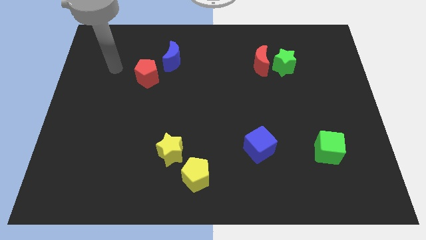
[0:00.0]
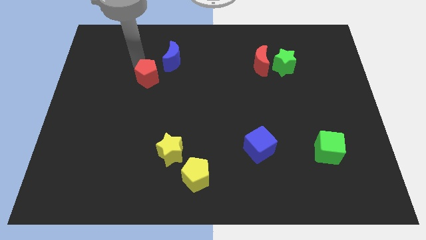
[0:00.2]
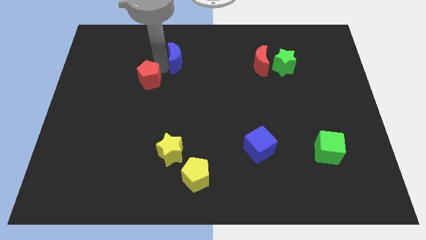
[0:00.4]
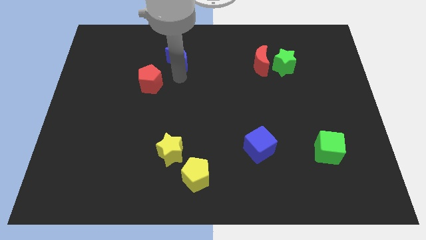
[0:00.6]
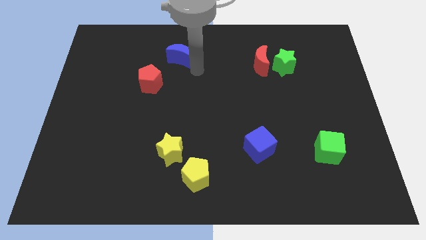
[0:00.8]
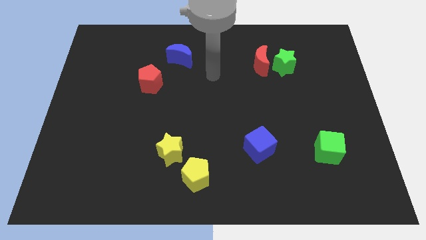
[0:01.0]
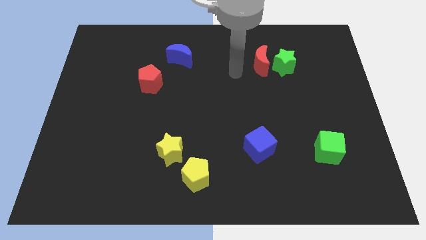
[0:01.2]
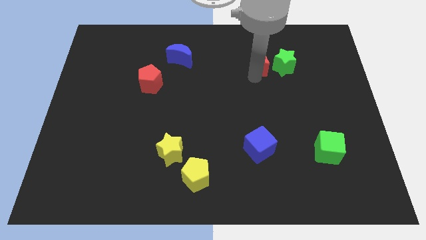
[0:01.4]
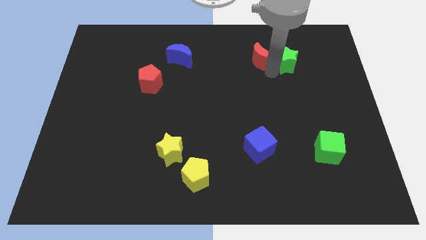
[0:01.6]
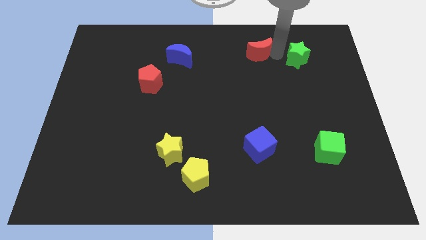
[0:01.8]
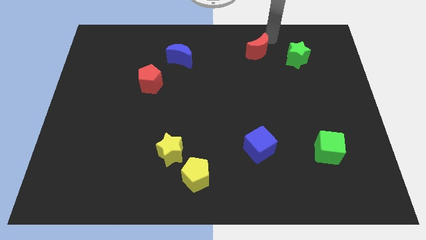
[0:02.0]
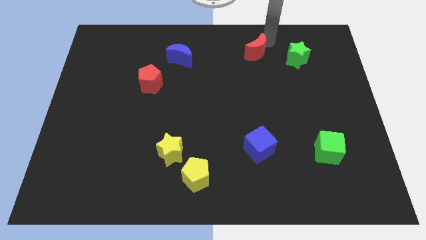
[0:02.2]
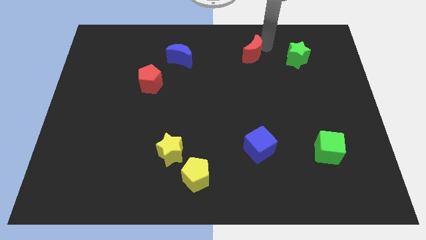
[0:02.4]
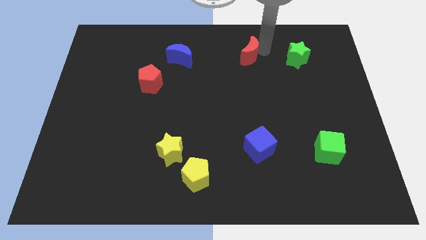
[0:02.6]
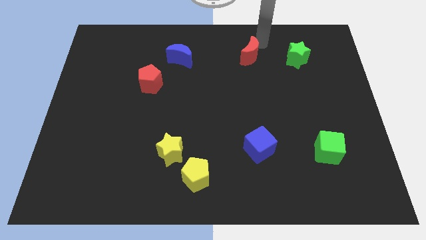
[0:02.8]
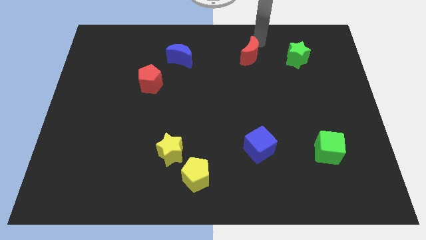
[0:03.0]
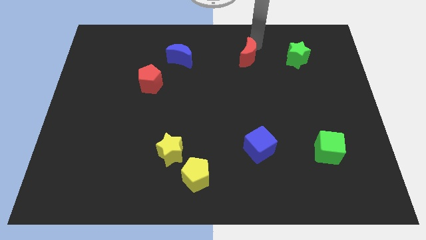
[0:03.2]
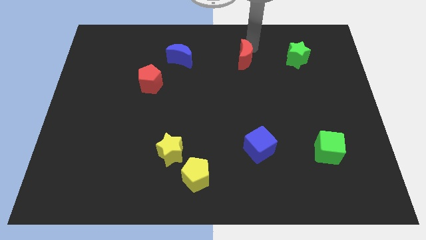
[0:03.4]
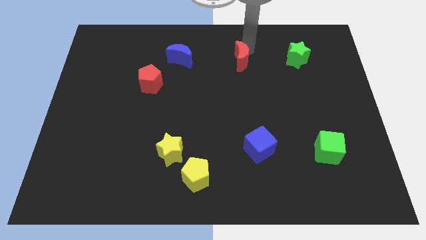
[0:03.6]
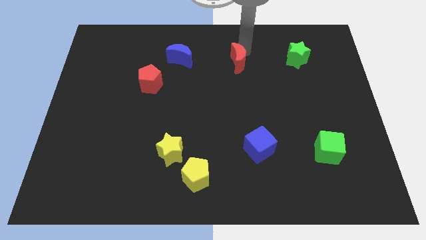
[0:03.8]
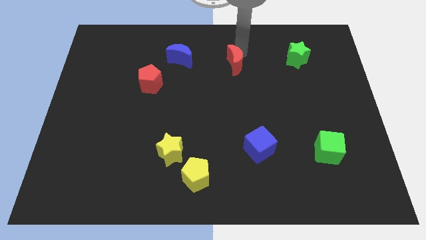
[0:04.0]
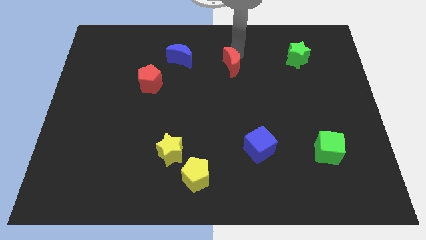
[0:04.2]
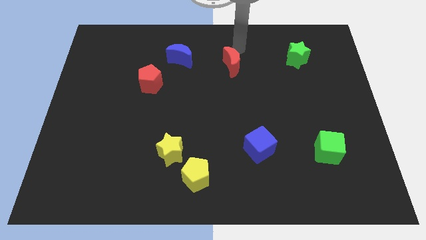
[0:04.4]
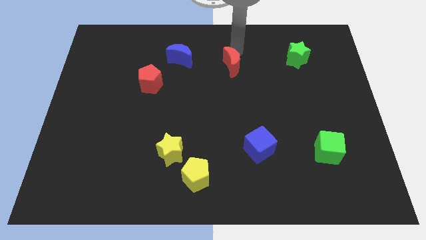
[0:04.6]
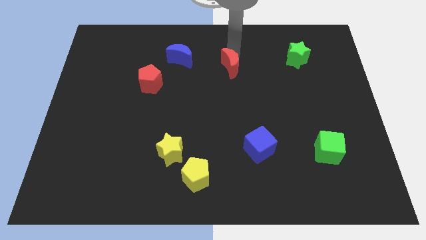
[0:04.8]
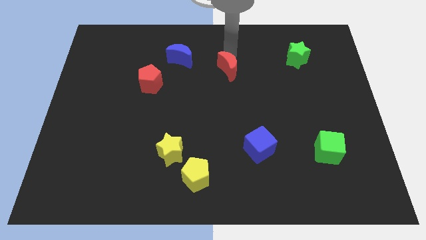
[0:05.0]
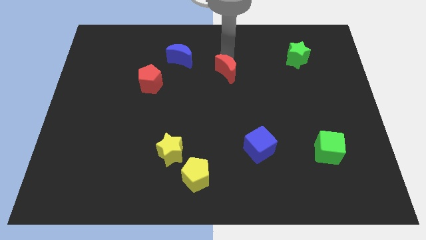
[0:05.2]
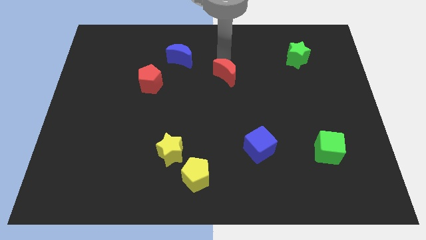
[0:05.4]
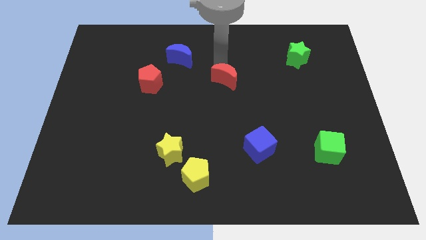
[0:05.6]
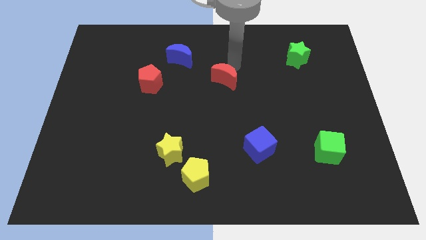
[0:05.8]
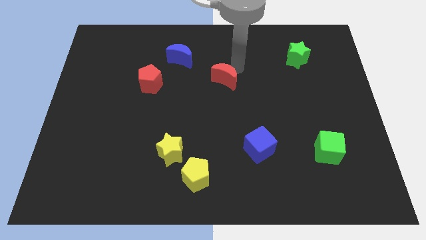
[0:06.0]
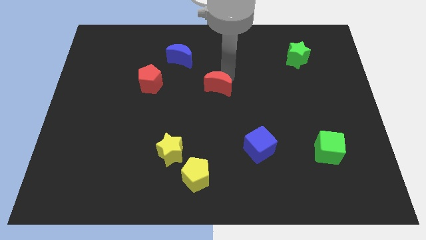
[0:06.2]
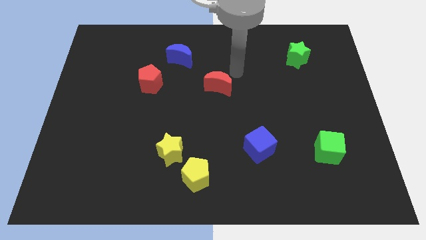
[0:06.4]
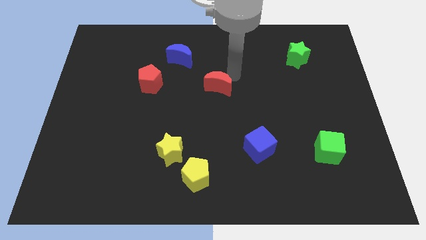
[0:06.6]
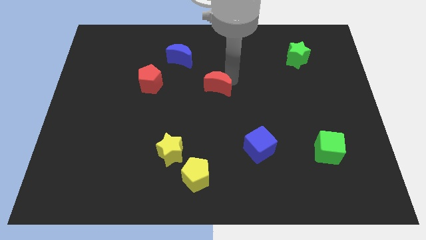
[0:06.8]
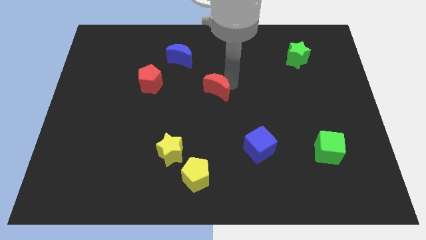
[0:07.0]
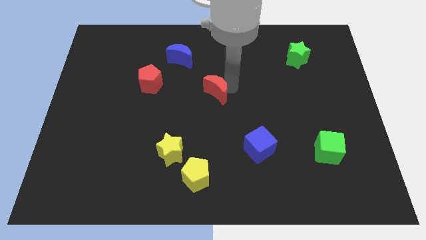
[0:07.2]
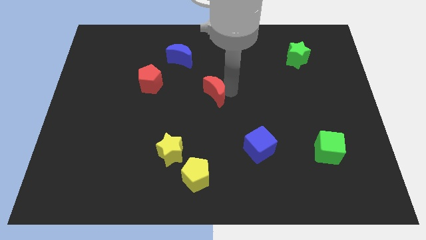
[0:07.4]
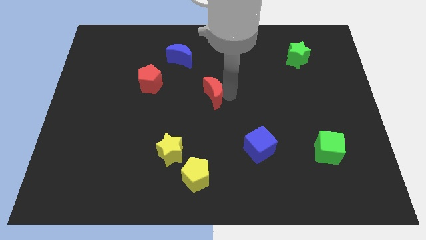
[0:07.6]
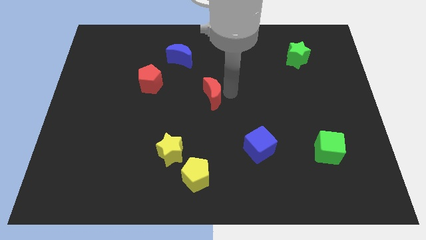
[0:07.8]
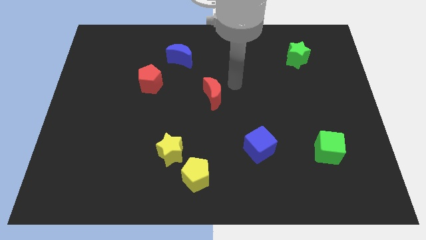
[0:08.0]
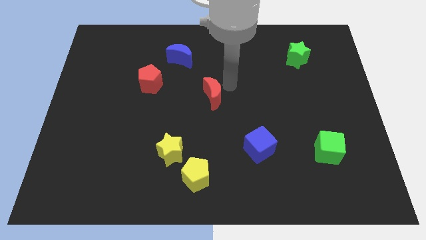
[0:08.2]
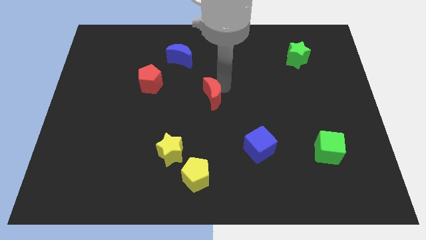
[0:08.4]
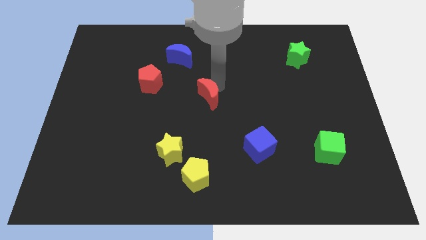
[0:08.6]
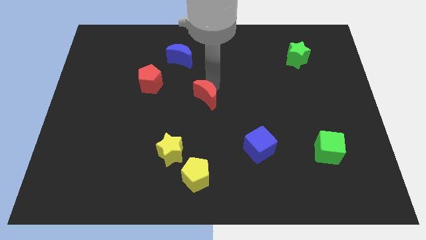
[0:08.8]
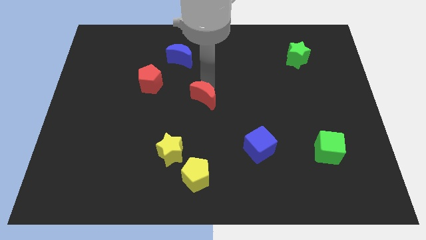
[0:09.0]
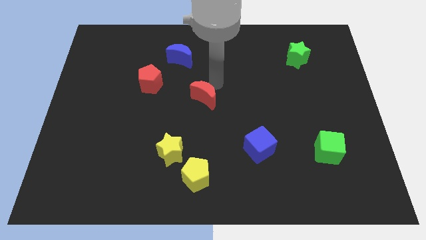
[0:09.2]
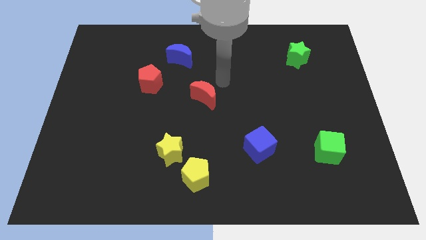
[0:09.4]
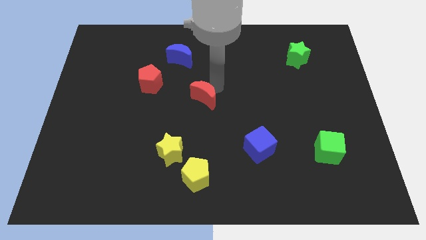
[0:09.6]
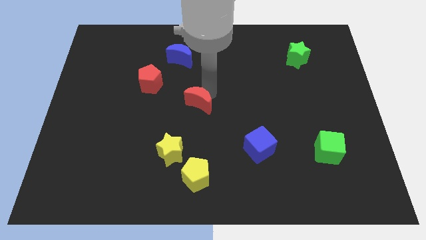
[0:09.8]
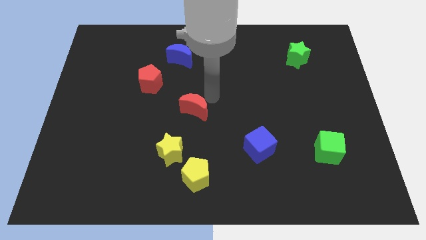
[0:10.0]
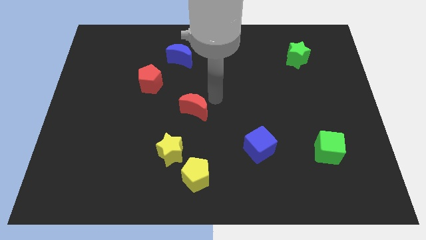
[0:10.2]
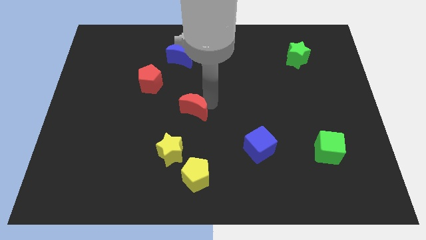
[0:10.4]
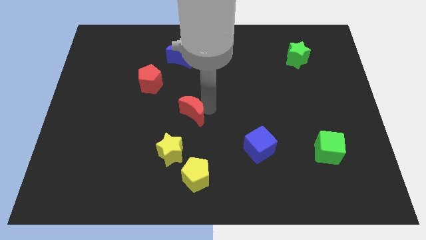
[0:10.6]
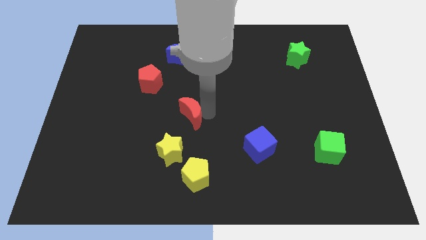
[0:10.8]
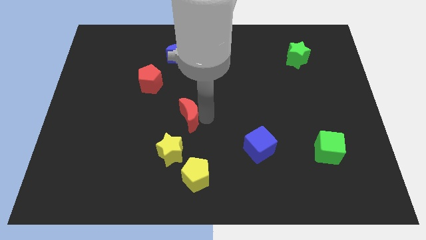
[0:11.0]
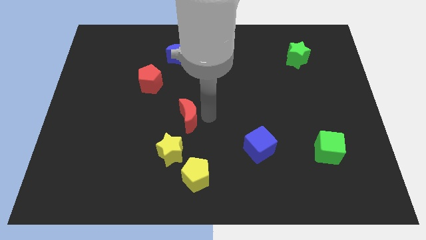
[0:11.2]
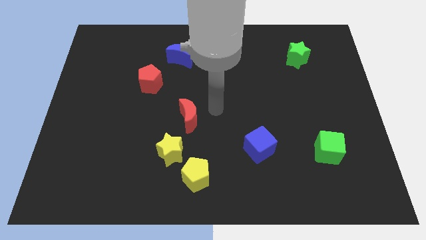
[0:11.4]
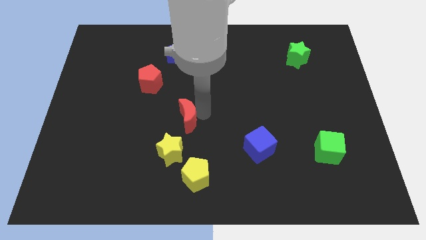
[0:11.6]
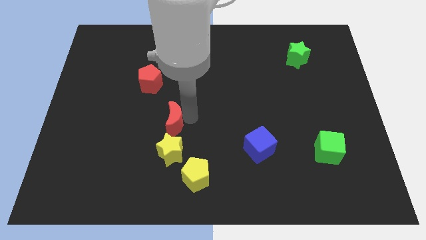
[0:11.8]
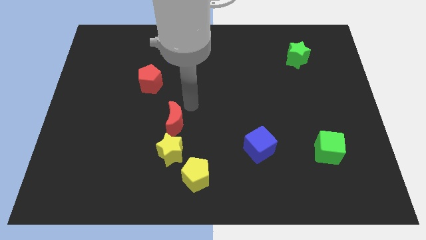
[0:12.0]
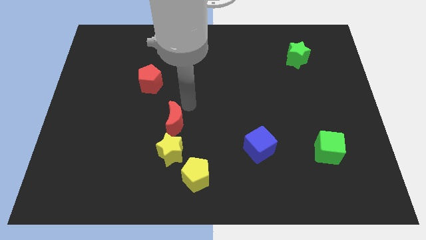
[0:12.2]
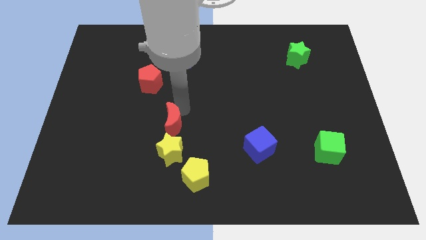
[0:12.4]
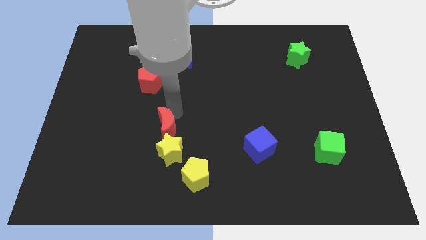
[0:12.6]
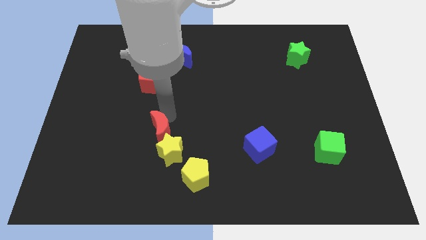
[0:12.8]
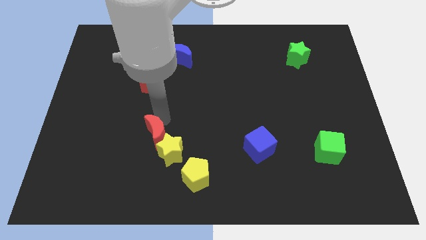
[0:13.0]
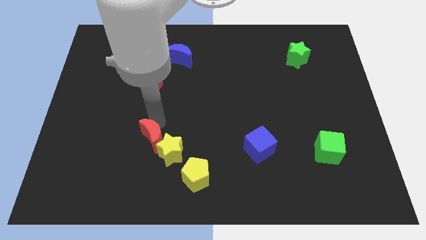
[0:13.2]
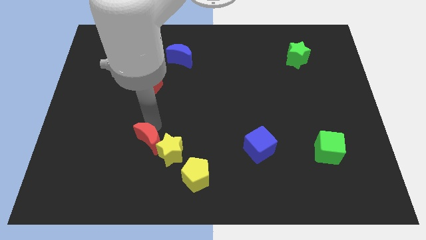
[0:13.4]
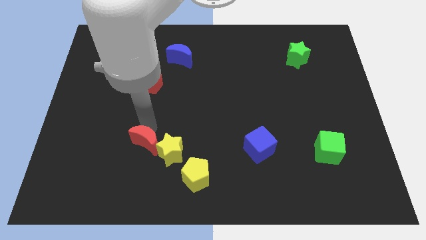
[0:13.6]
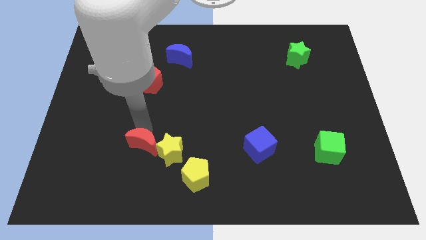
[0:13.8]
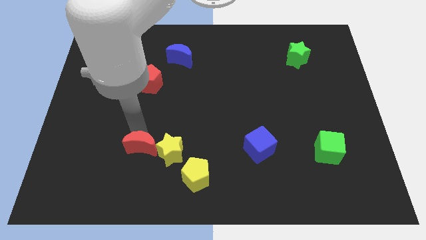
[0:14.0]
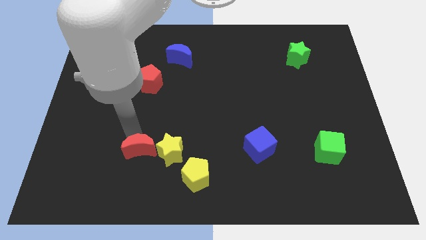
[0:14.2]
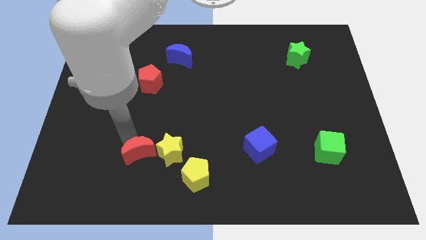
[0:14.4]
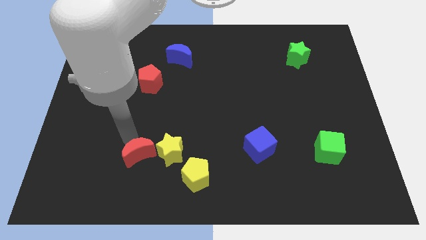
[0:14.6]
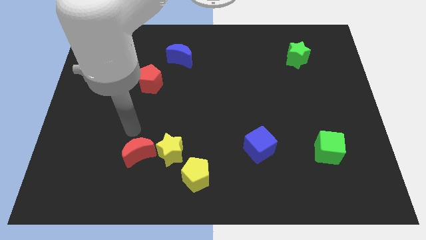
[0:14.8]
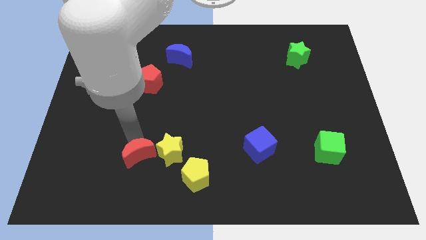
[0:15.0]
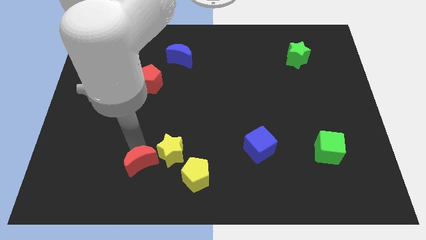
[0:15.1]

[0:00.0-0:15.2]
move the red moon to the left of the yellow pentagon

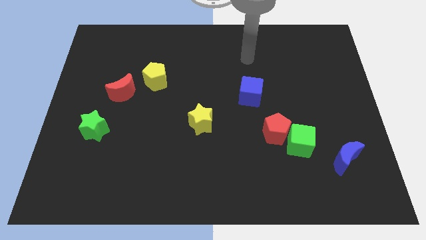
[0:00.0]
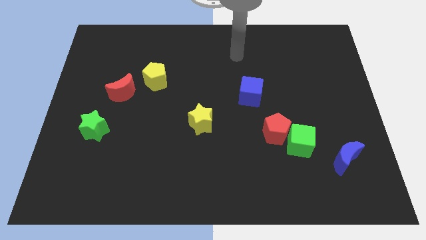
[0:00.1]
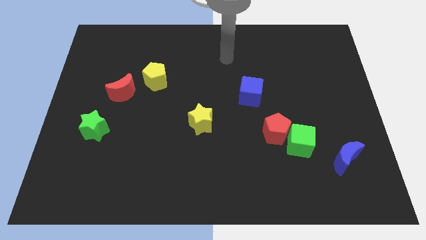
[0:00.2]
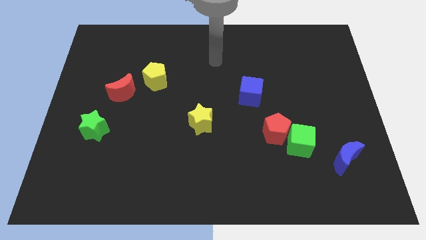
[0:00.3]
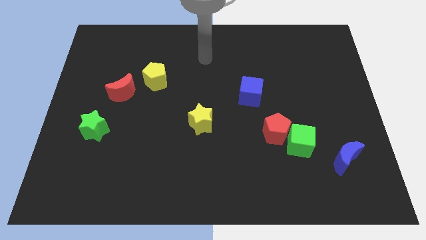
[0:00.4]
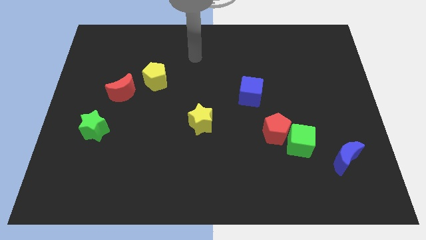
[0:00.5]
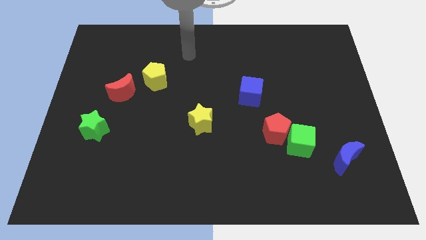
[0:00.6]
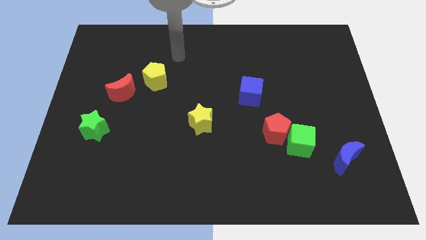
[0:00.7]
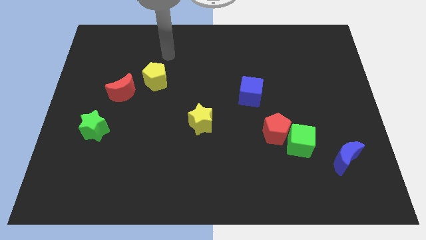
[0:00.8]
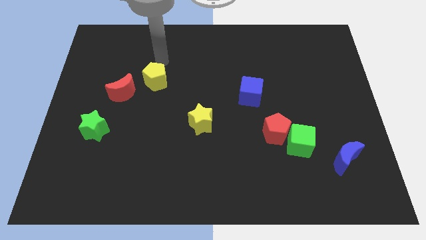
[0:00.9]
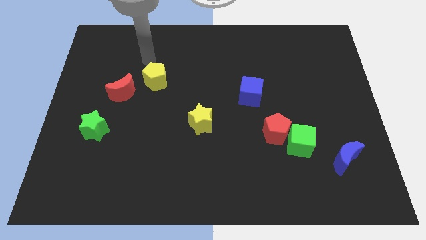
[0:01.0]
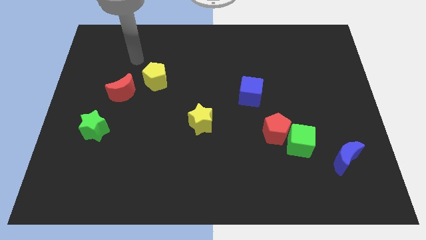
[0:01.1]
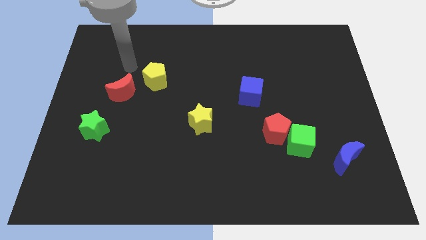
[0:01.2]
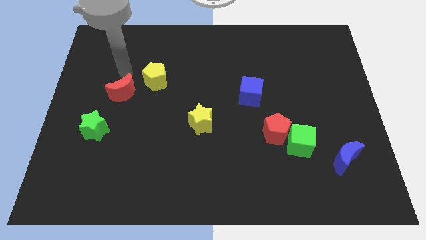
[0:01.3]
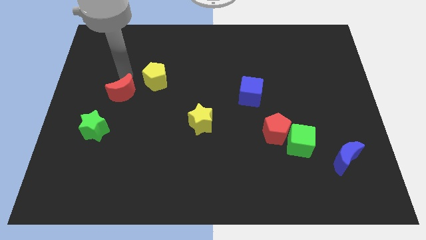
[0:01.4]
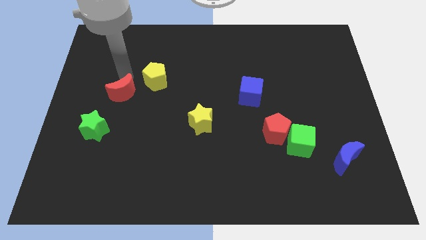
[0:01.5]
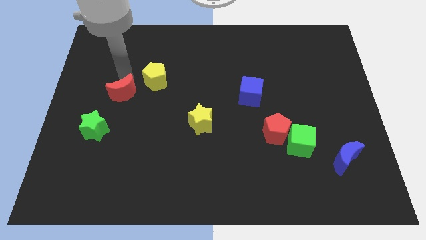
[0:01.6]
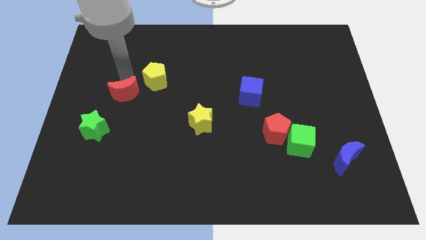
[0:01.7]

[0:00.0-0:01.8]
move the red moon to the top right side of the green star
